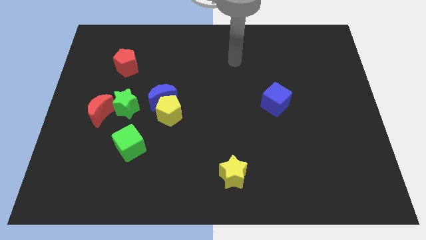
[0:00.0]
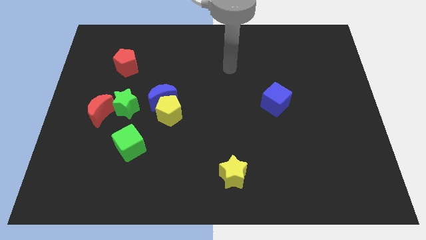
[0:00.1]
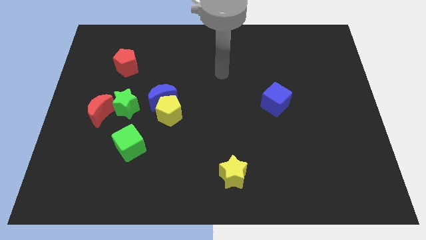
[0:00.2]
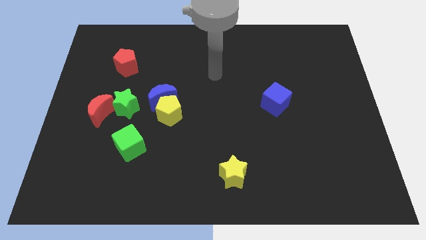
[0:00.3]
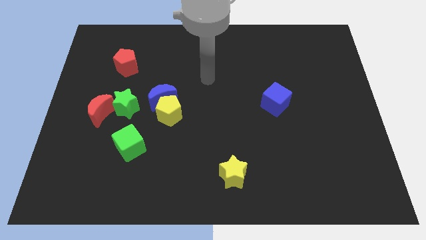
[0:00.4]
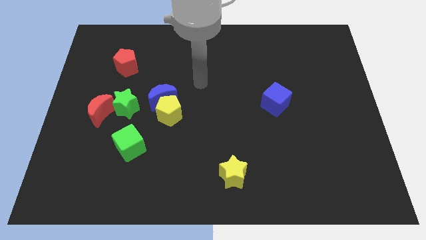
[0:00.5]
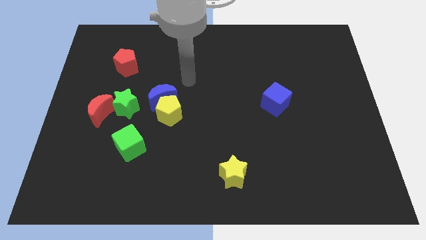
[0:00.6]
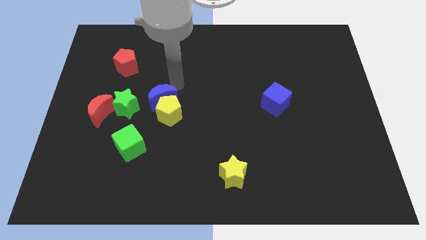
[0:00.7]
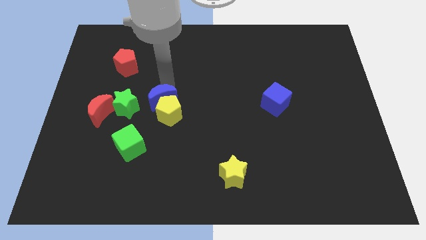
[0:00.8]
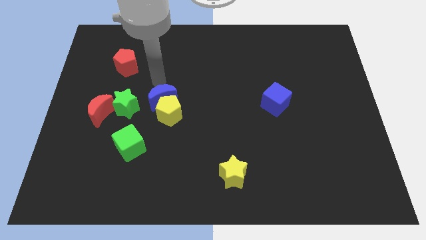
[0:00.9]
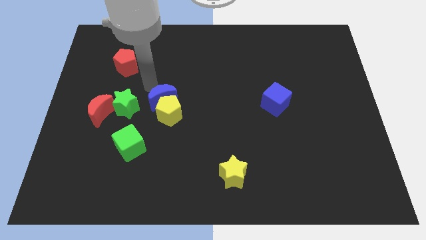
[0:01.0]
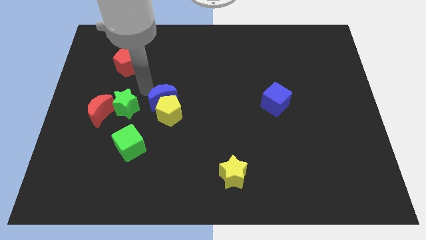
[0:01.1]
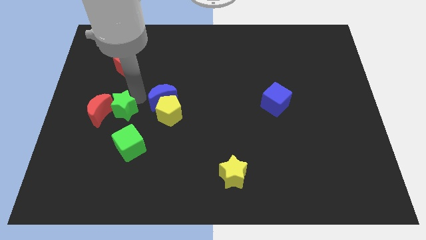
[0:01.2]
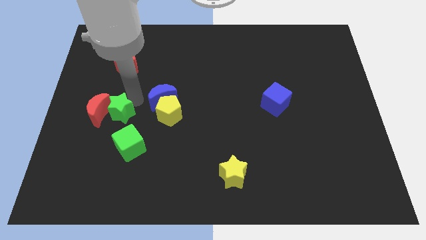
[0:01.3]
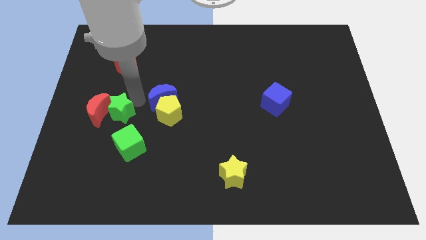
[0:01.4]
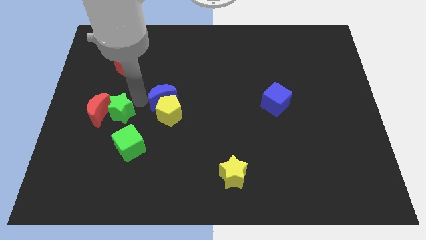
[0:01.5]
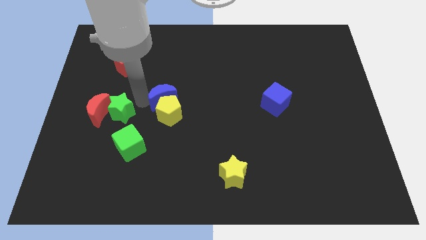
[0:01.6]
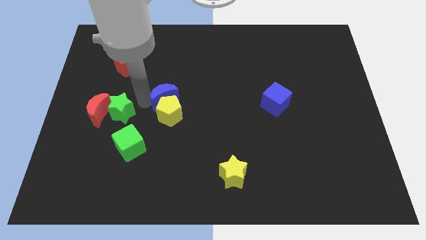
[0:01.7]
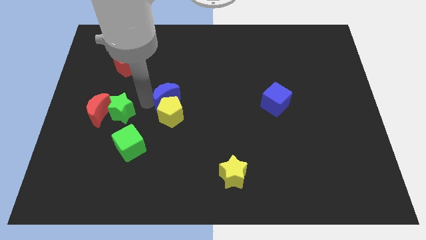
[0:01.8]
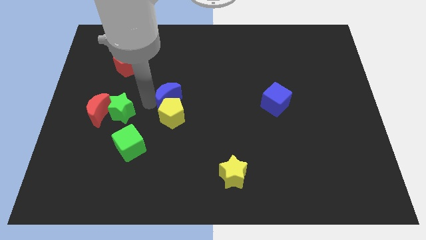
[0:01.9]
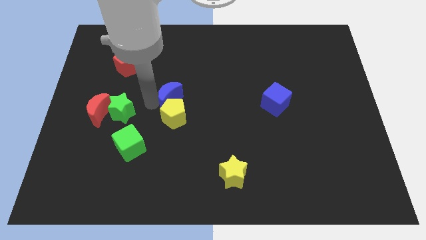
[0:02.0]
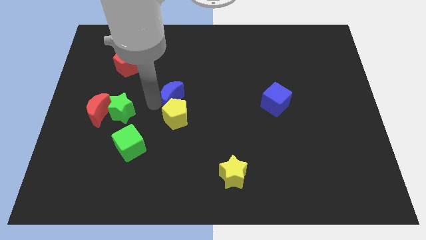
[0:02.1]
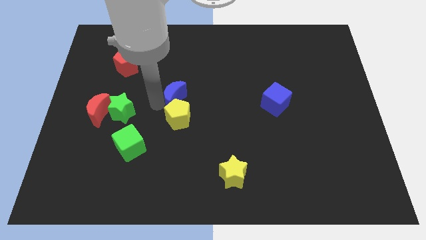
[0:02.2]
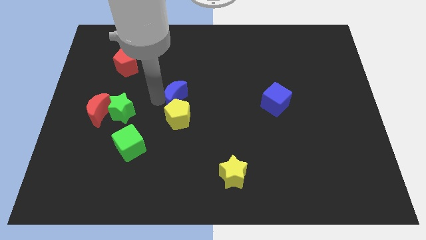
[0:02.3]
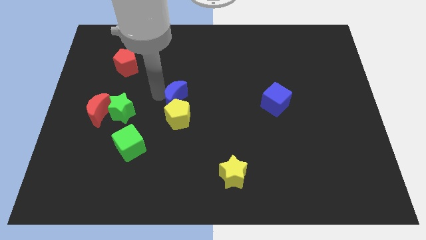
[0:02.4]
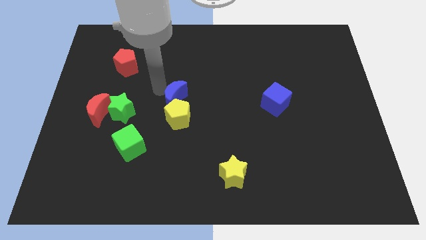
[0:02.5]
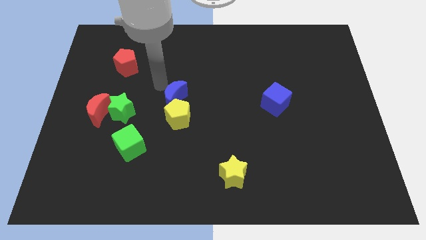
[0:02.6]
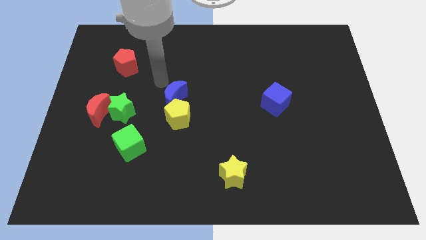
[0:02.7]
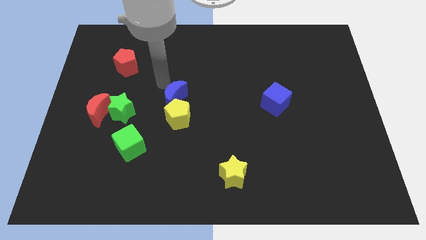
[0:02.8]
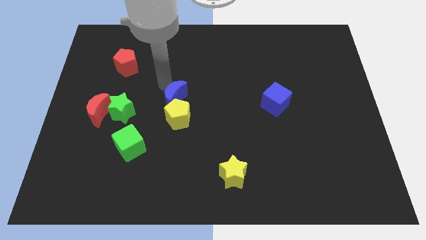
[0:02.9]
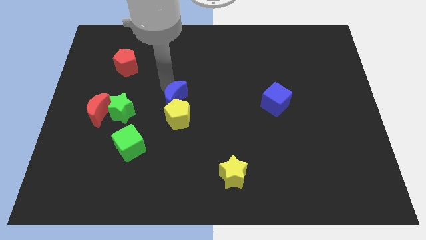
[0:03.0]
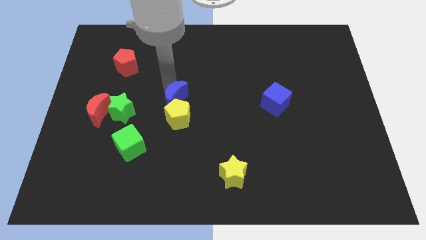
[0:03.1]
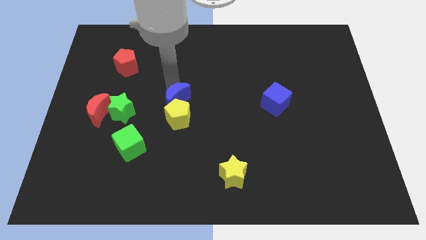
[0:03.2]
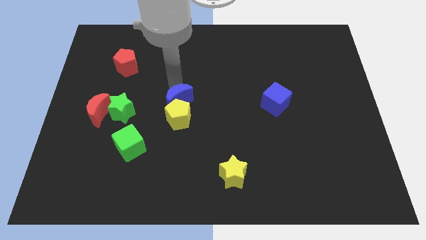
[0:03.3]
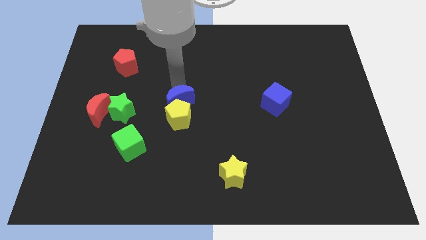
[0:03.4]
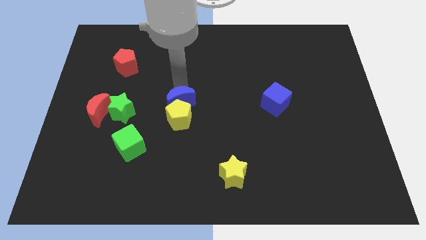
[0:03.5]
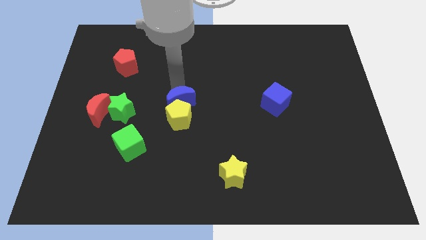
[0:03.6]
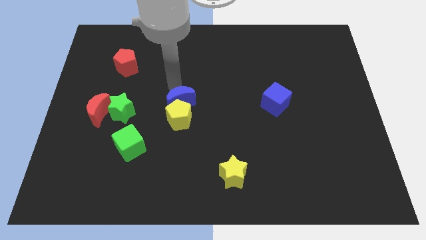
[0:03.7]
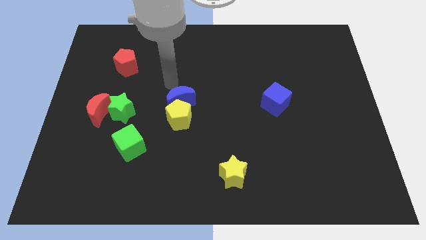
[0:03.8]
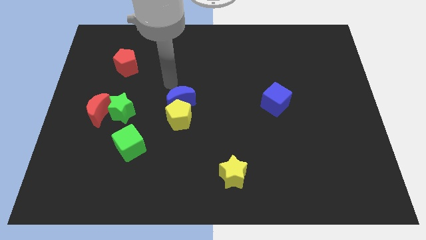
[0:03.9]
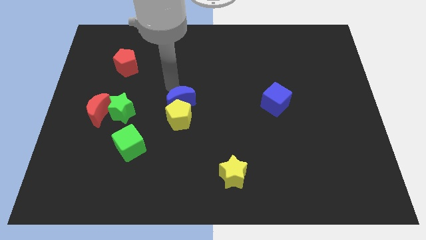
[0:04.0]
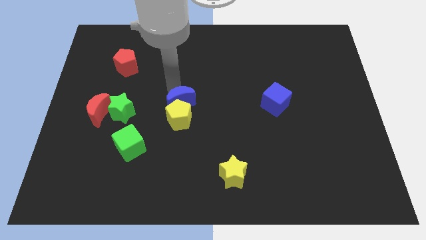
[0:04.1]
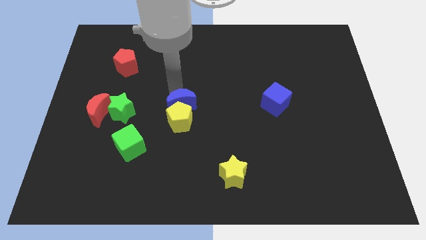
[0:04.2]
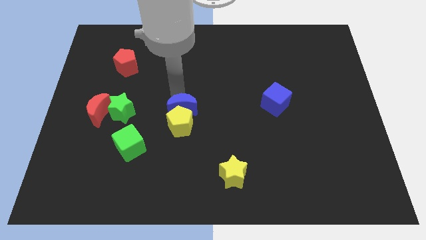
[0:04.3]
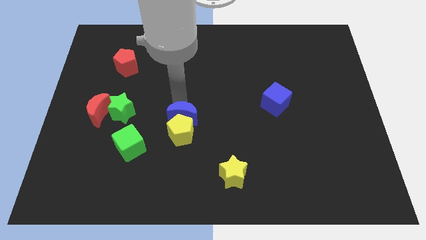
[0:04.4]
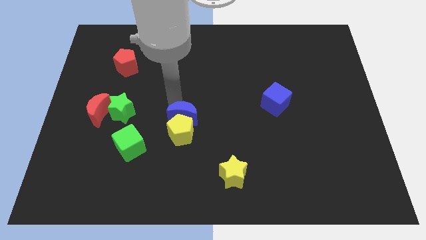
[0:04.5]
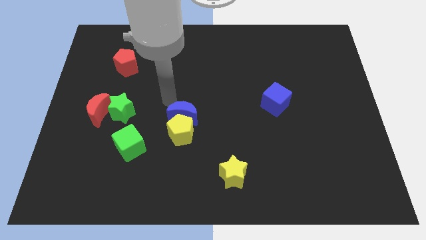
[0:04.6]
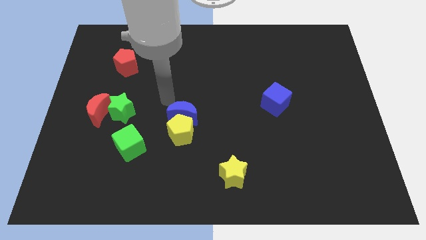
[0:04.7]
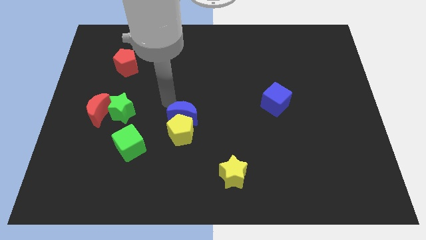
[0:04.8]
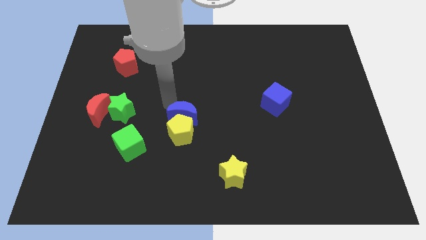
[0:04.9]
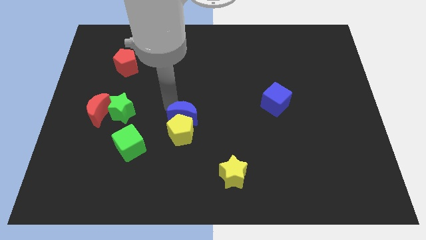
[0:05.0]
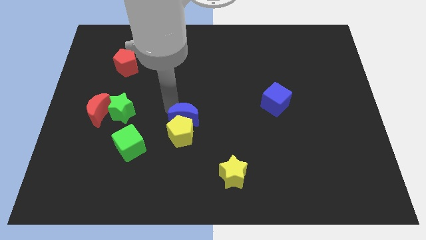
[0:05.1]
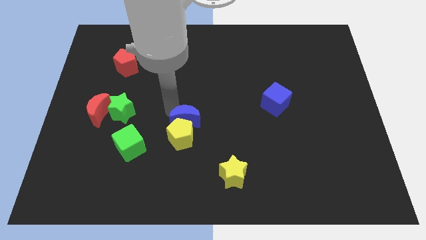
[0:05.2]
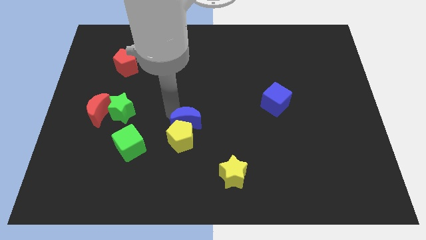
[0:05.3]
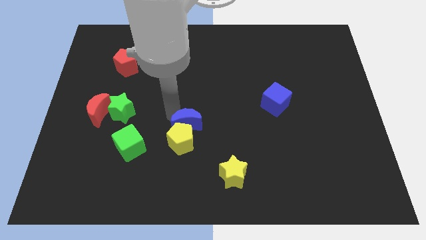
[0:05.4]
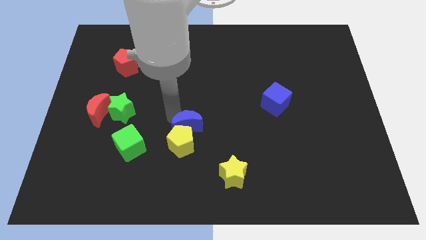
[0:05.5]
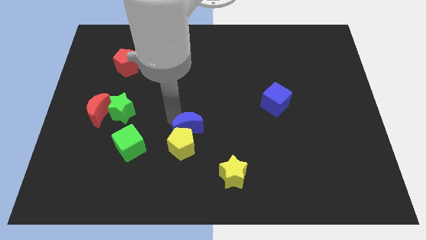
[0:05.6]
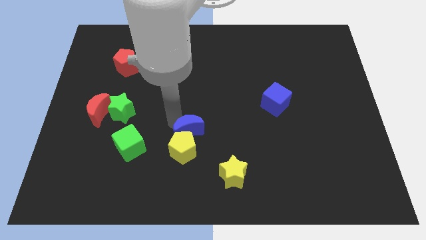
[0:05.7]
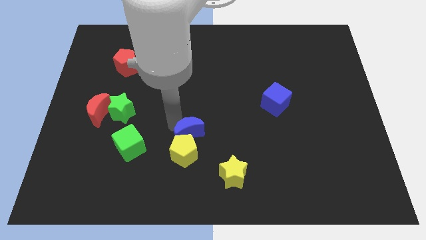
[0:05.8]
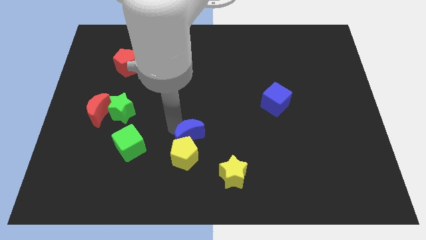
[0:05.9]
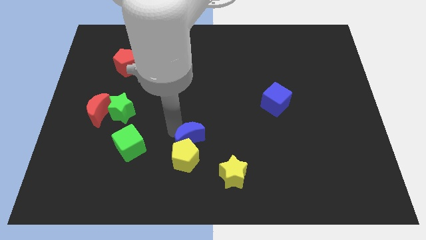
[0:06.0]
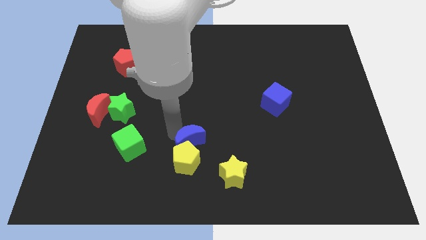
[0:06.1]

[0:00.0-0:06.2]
put the blue moon to the top left of the yellow star
